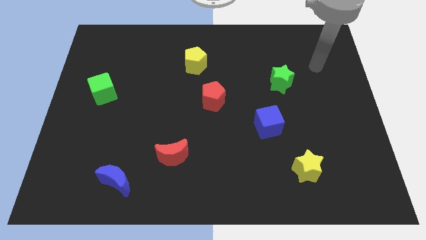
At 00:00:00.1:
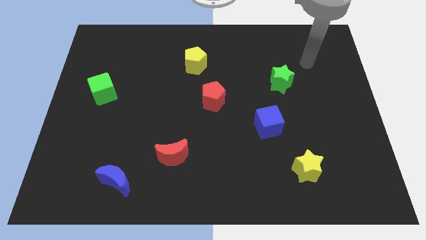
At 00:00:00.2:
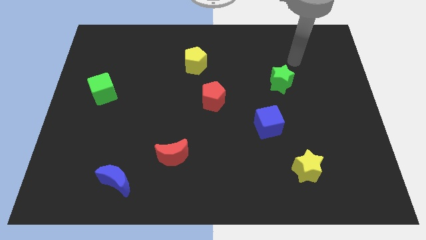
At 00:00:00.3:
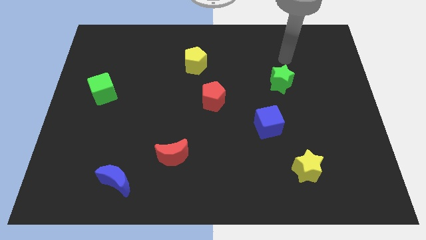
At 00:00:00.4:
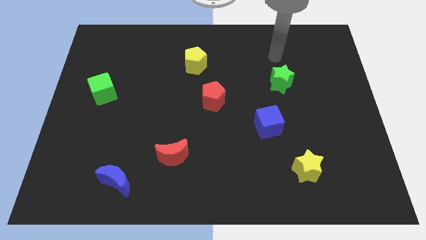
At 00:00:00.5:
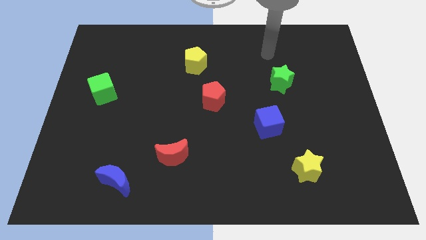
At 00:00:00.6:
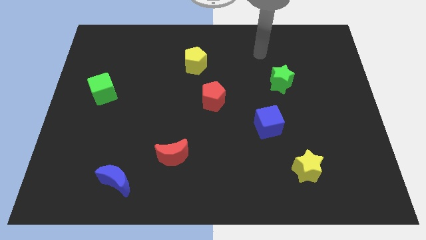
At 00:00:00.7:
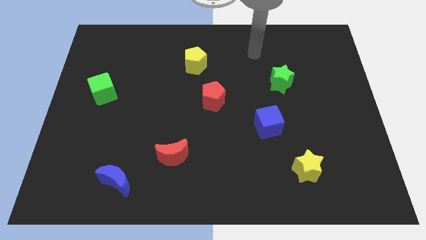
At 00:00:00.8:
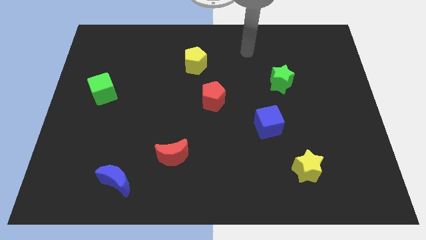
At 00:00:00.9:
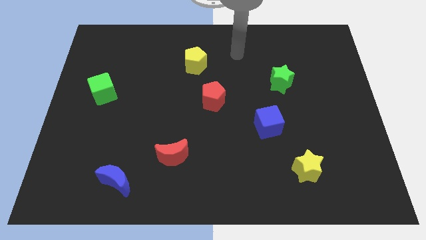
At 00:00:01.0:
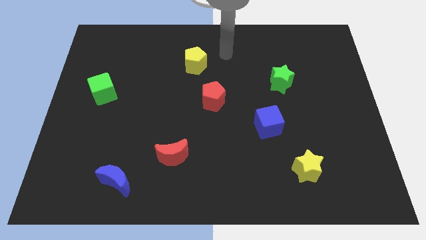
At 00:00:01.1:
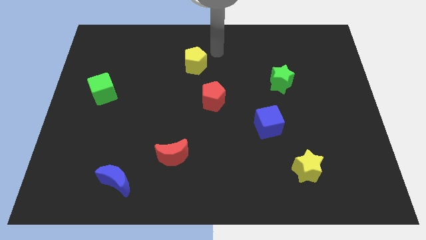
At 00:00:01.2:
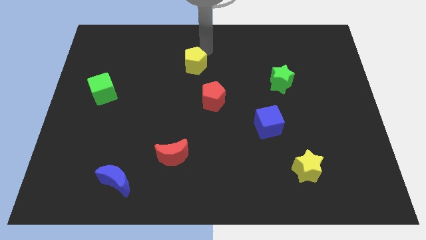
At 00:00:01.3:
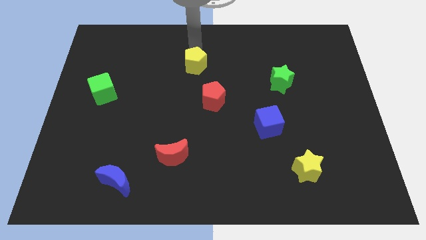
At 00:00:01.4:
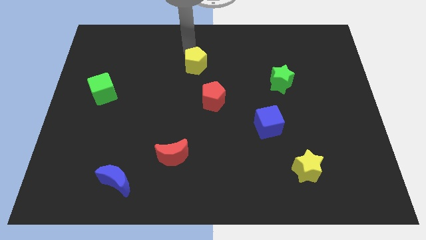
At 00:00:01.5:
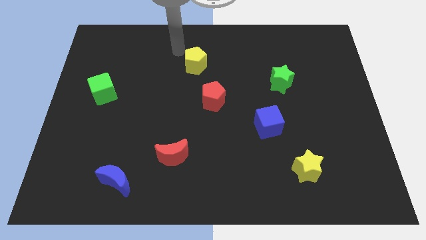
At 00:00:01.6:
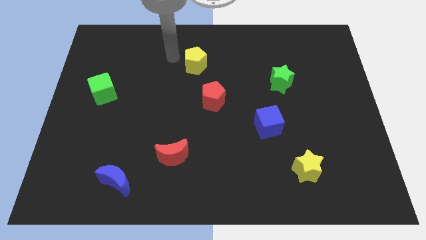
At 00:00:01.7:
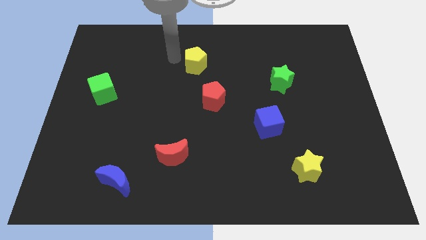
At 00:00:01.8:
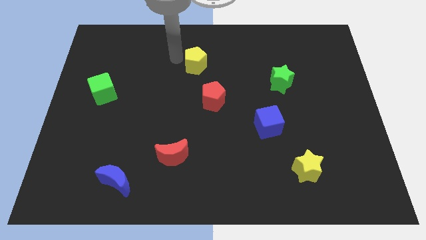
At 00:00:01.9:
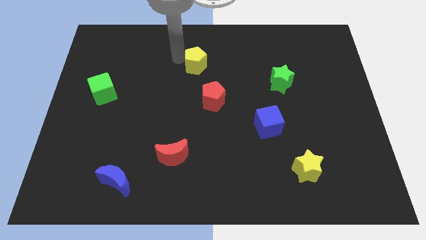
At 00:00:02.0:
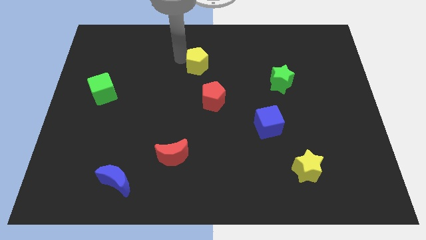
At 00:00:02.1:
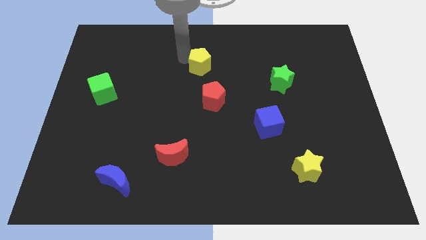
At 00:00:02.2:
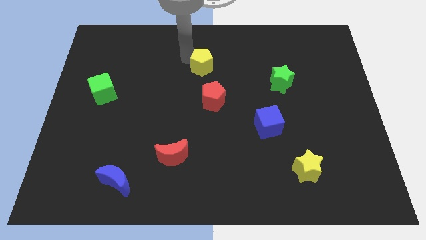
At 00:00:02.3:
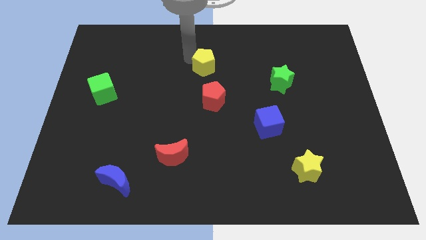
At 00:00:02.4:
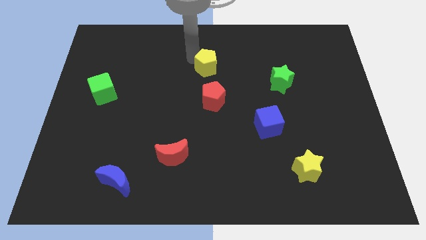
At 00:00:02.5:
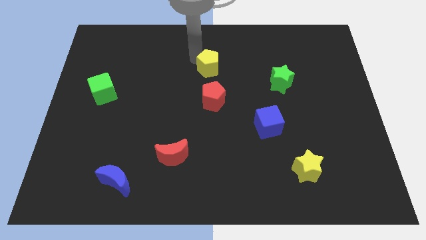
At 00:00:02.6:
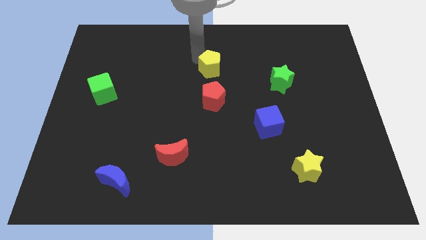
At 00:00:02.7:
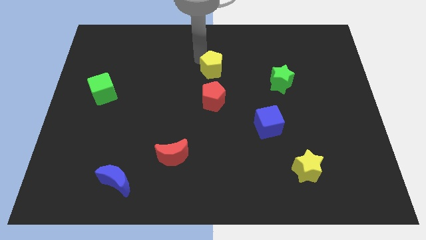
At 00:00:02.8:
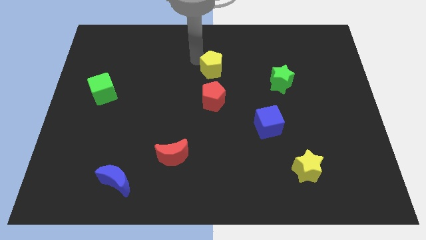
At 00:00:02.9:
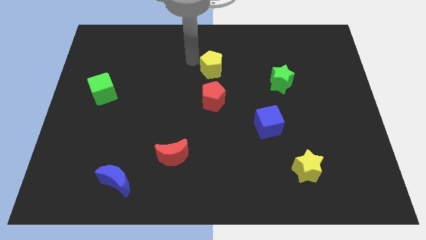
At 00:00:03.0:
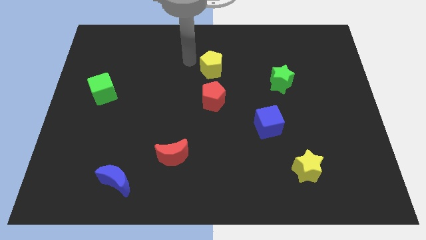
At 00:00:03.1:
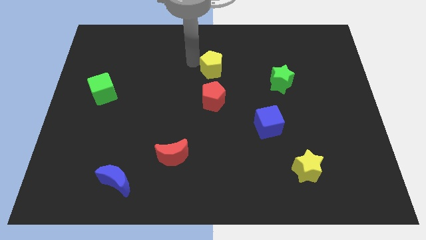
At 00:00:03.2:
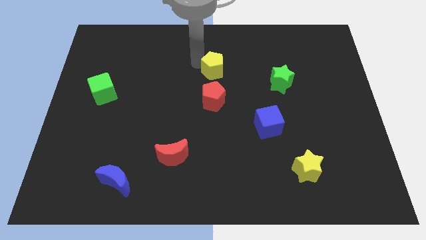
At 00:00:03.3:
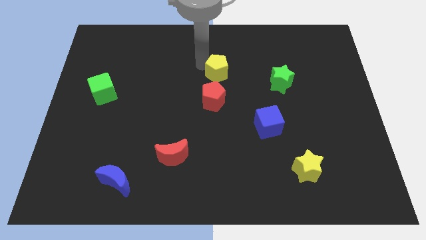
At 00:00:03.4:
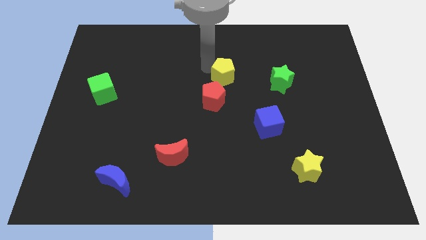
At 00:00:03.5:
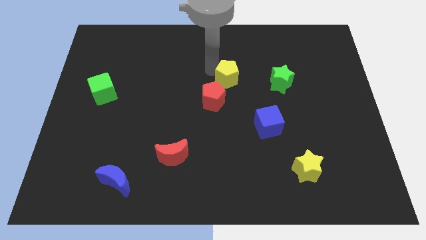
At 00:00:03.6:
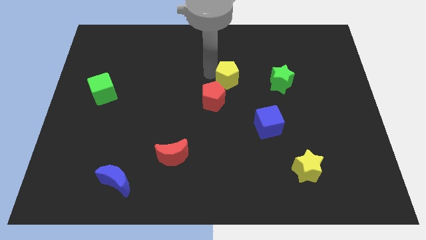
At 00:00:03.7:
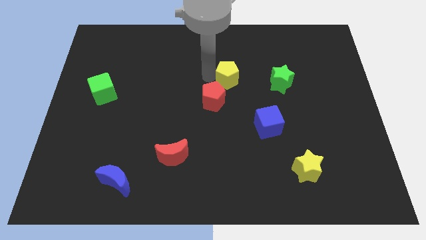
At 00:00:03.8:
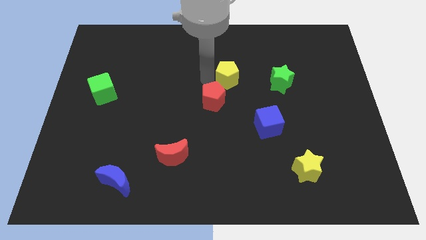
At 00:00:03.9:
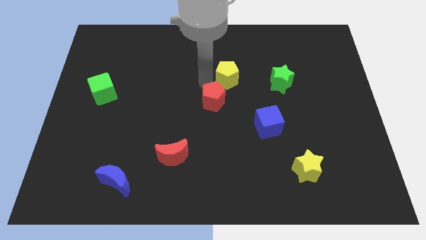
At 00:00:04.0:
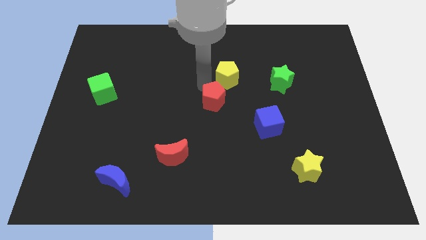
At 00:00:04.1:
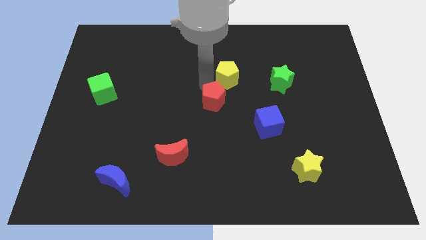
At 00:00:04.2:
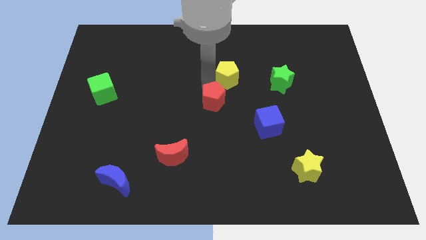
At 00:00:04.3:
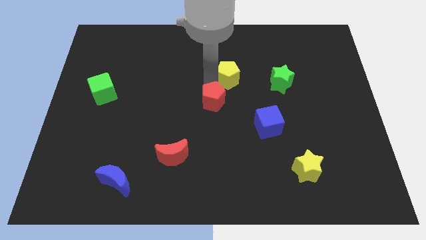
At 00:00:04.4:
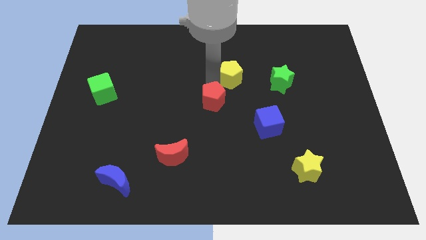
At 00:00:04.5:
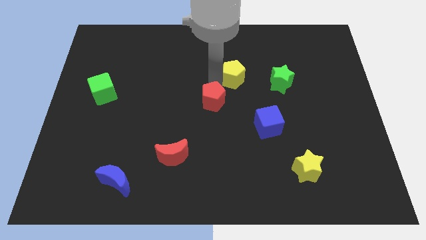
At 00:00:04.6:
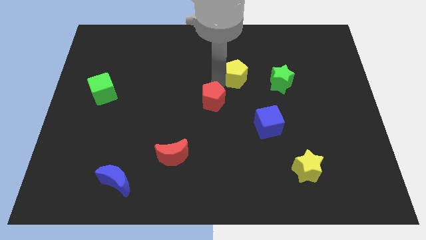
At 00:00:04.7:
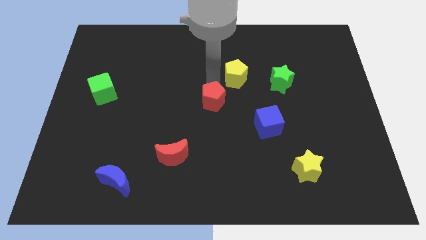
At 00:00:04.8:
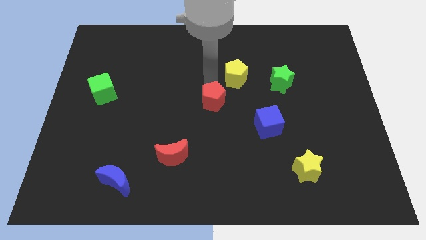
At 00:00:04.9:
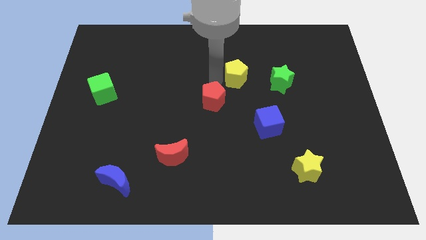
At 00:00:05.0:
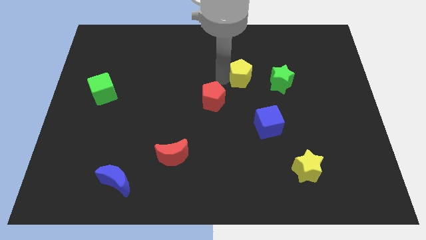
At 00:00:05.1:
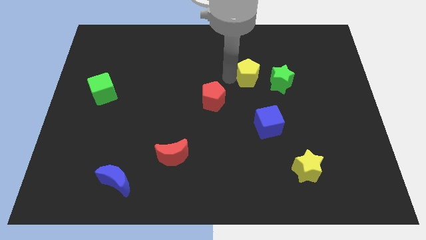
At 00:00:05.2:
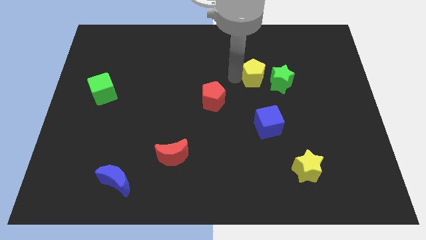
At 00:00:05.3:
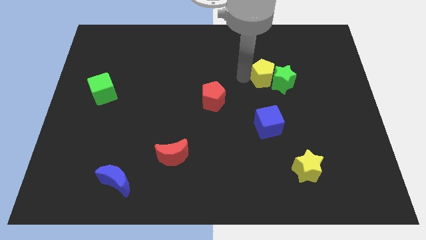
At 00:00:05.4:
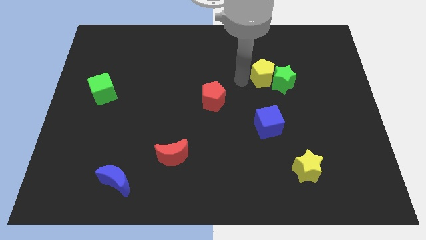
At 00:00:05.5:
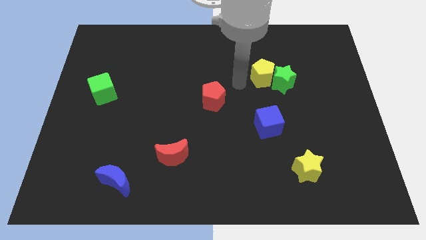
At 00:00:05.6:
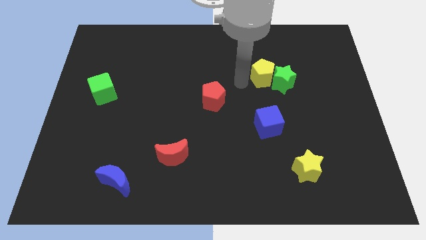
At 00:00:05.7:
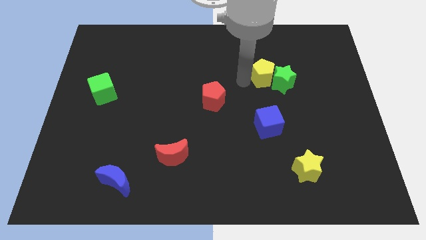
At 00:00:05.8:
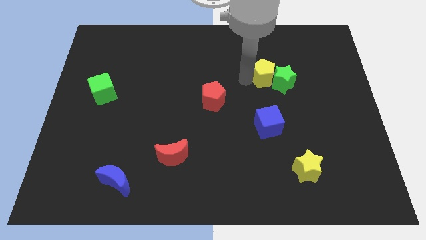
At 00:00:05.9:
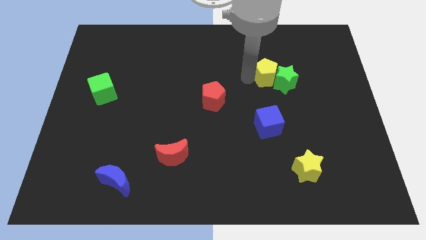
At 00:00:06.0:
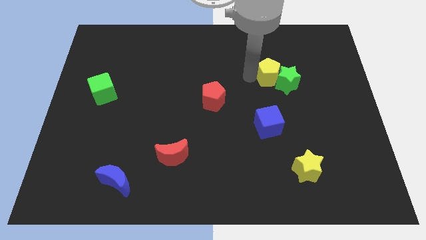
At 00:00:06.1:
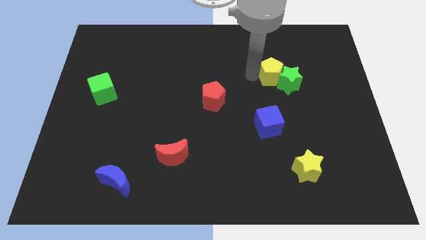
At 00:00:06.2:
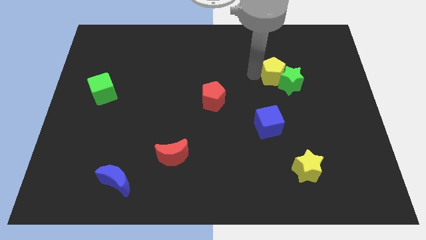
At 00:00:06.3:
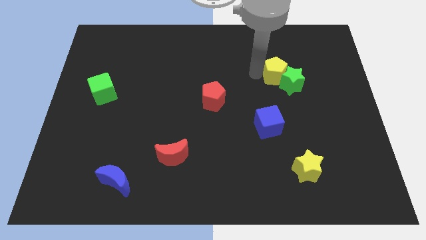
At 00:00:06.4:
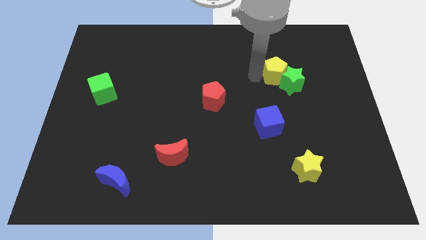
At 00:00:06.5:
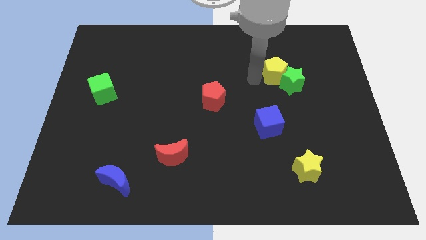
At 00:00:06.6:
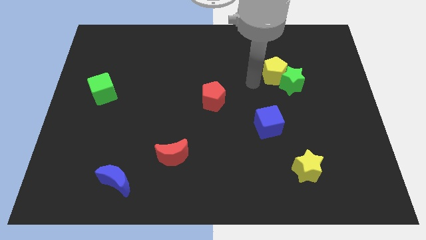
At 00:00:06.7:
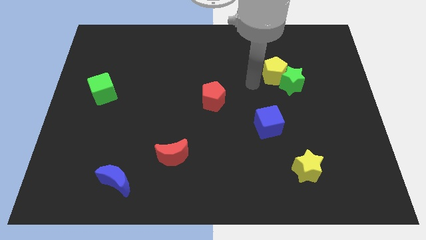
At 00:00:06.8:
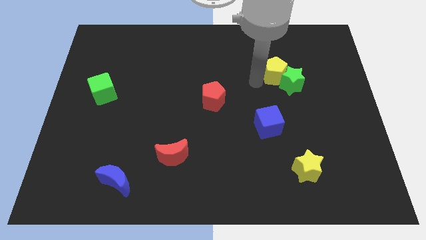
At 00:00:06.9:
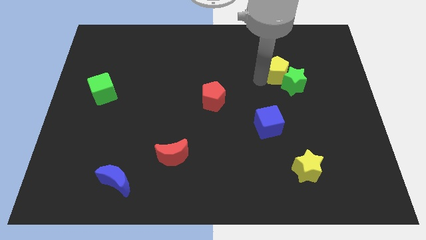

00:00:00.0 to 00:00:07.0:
push the yellow pentagon right

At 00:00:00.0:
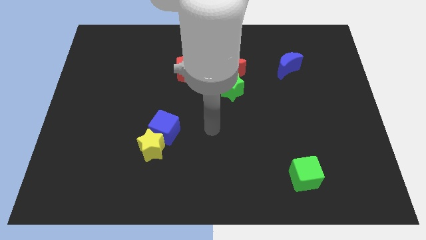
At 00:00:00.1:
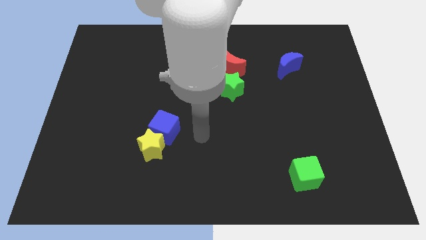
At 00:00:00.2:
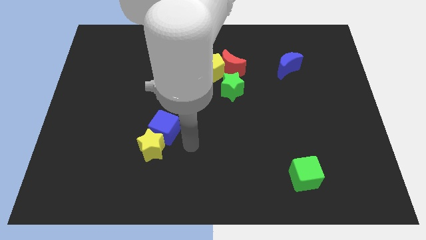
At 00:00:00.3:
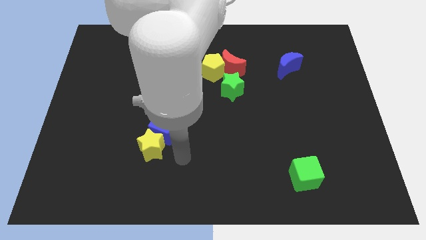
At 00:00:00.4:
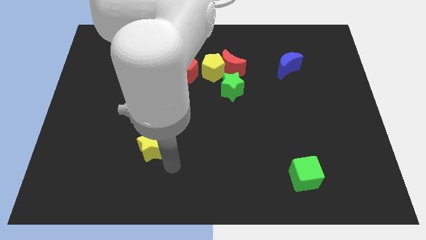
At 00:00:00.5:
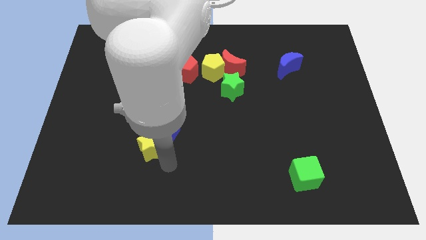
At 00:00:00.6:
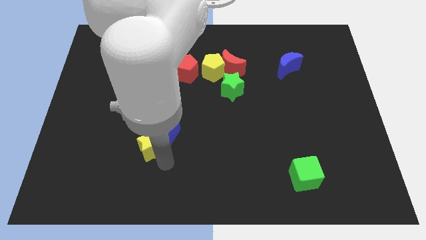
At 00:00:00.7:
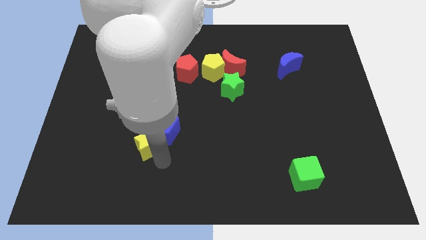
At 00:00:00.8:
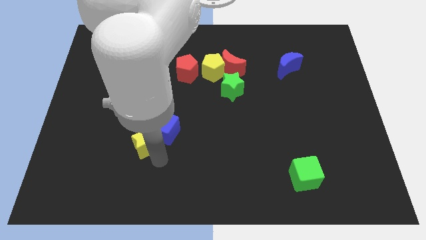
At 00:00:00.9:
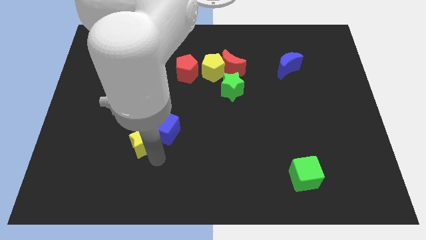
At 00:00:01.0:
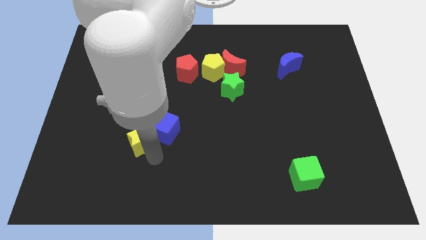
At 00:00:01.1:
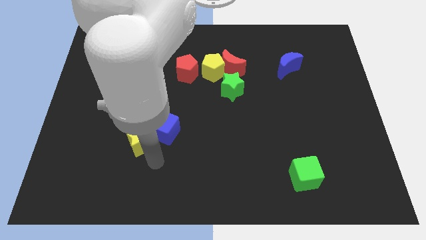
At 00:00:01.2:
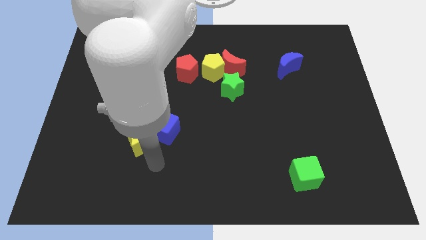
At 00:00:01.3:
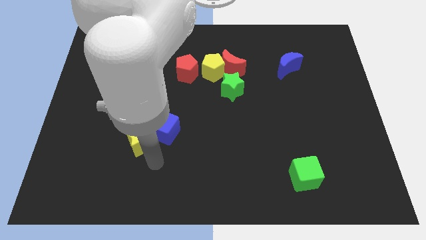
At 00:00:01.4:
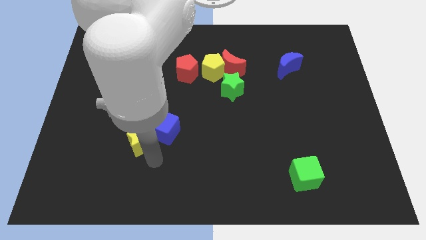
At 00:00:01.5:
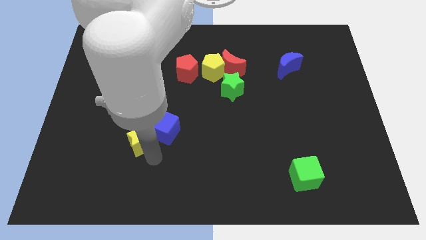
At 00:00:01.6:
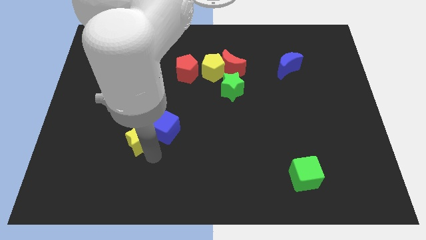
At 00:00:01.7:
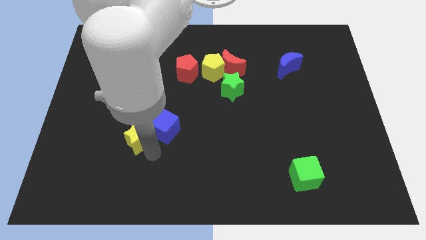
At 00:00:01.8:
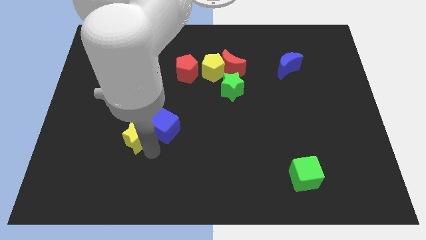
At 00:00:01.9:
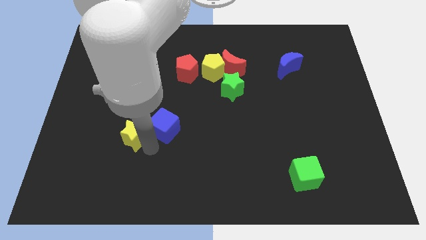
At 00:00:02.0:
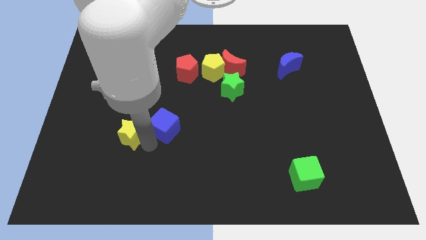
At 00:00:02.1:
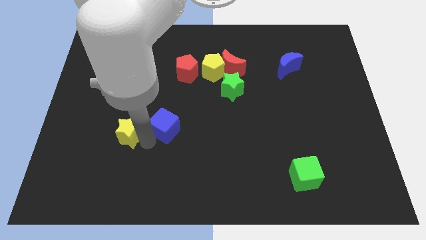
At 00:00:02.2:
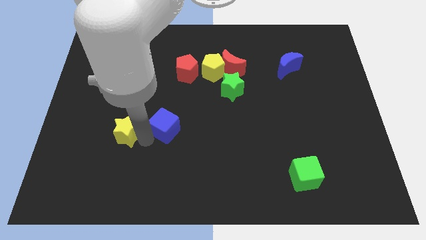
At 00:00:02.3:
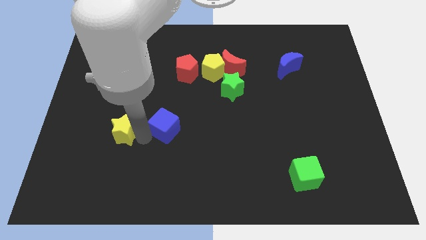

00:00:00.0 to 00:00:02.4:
push the yellow star upwards and left diagonally a bit
